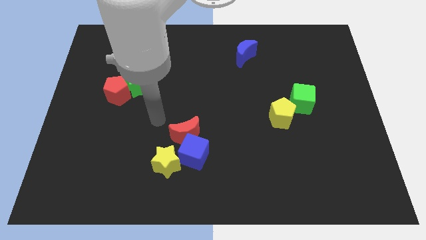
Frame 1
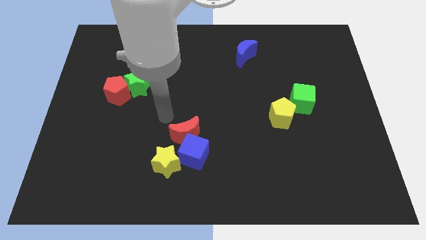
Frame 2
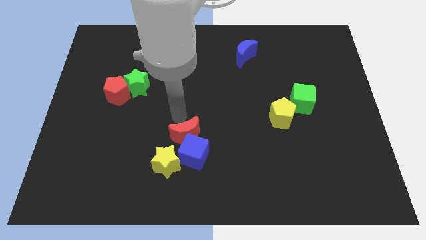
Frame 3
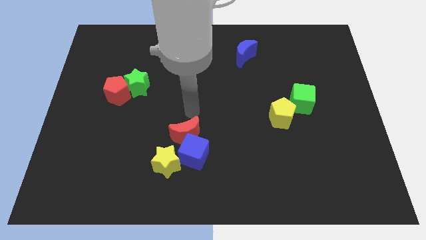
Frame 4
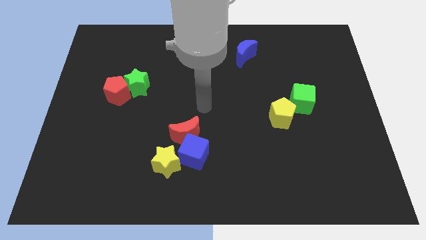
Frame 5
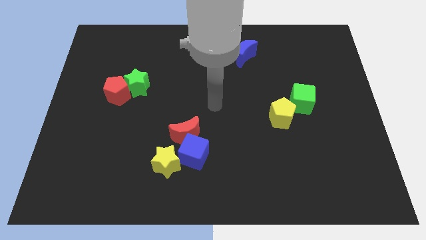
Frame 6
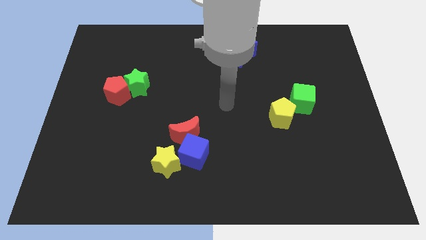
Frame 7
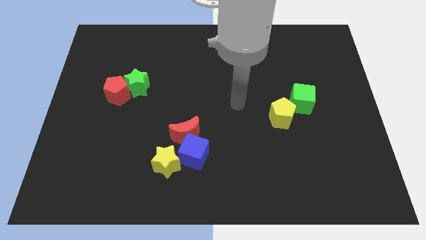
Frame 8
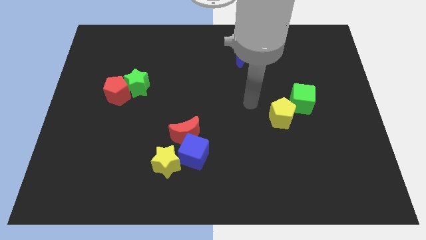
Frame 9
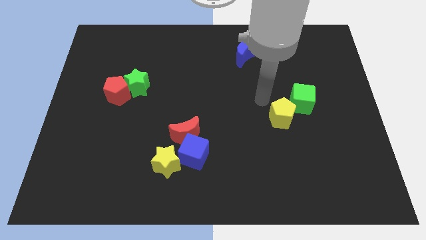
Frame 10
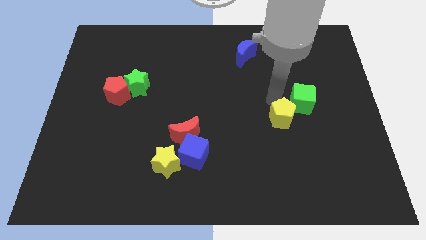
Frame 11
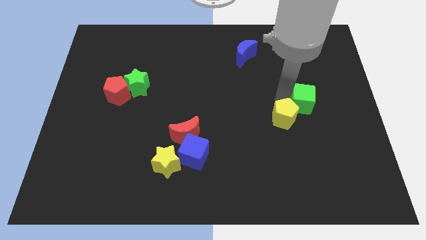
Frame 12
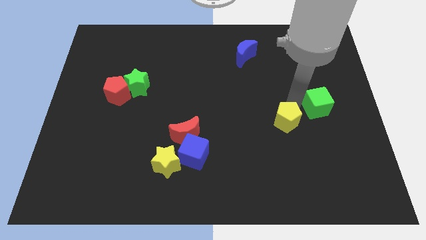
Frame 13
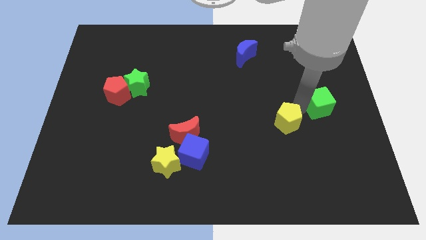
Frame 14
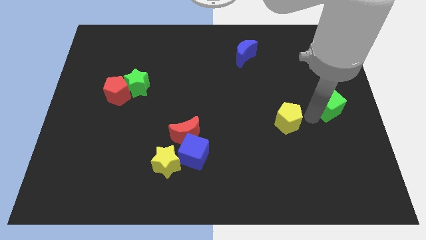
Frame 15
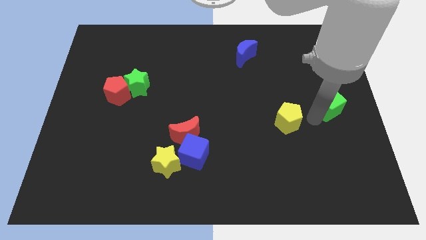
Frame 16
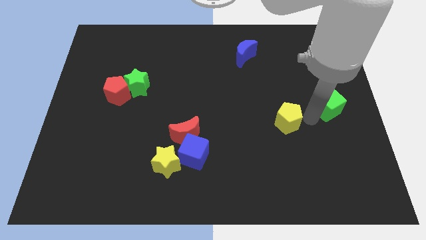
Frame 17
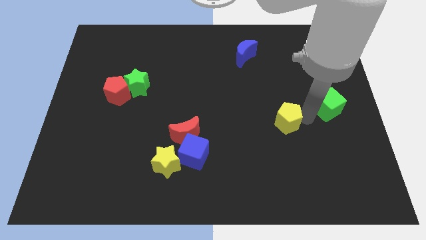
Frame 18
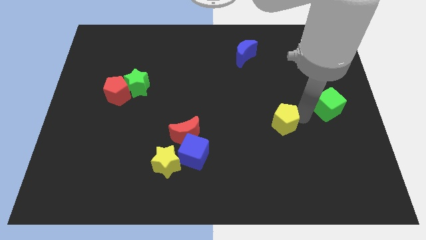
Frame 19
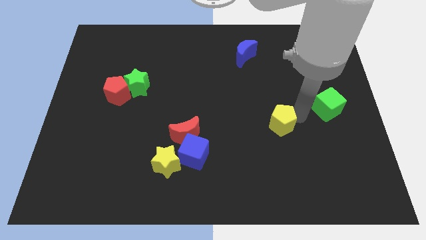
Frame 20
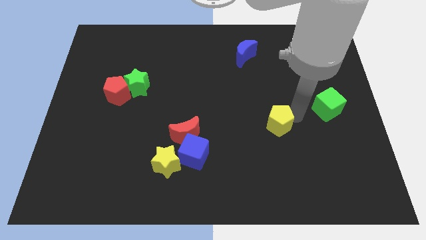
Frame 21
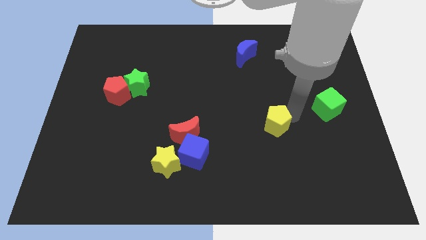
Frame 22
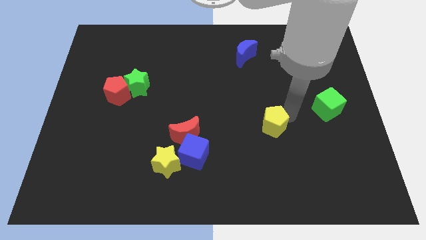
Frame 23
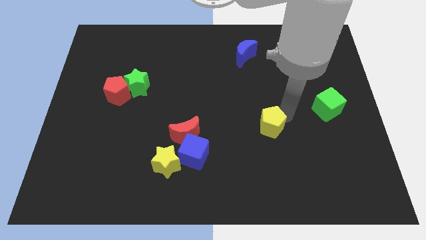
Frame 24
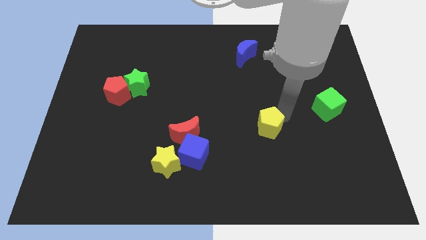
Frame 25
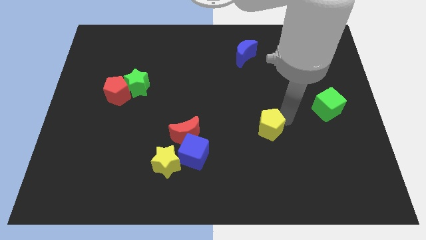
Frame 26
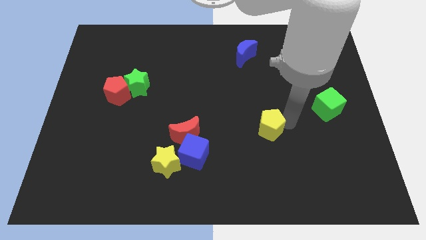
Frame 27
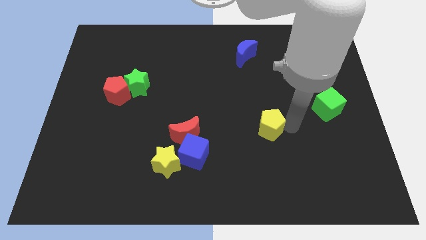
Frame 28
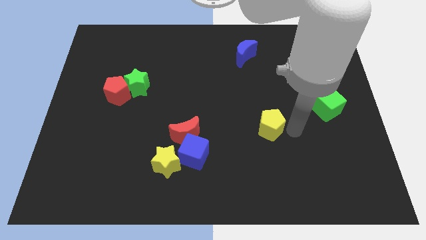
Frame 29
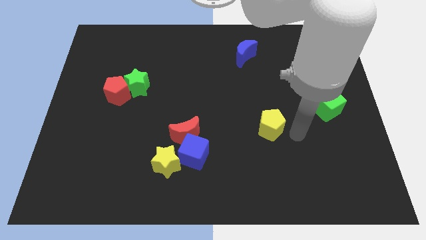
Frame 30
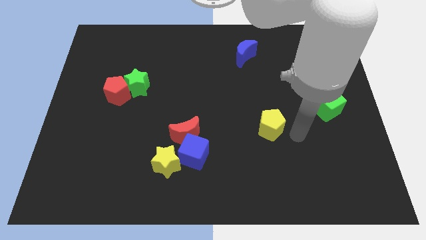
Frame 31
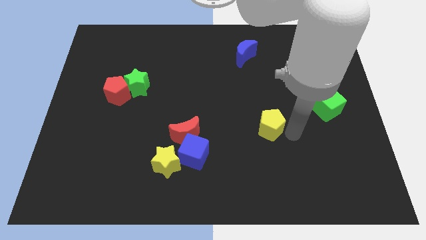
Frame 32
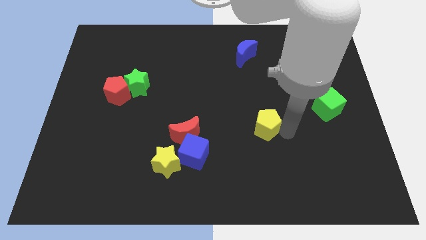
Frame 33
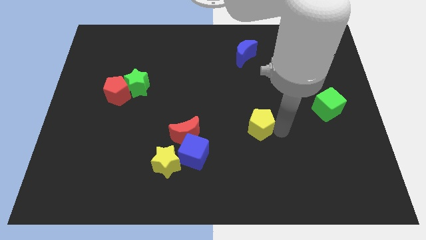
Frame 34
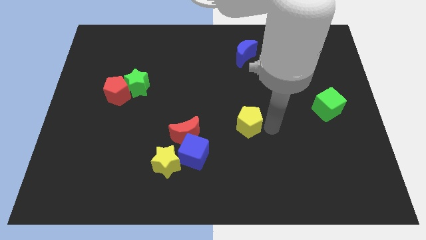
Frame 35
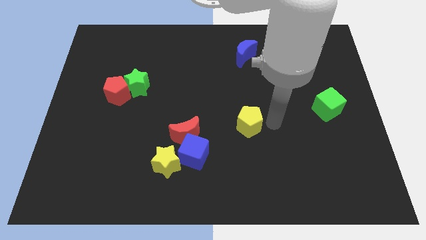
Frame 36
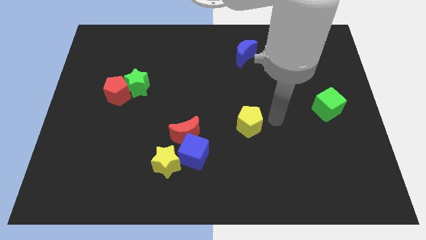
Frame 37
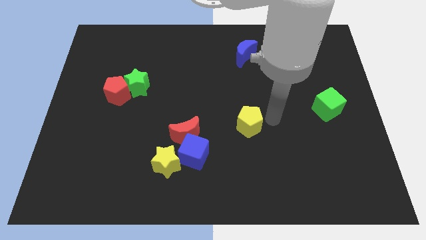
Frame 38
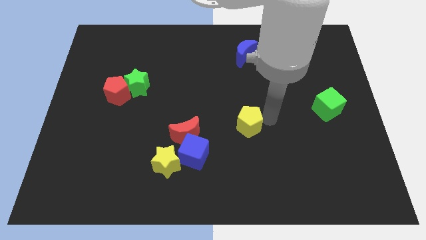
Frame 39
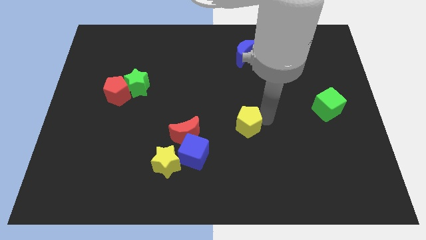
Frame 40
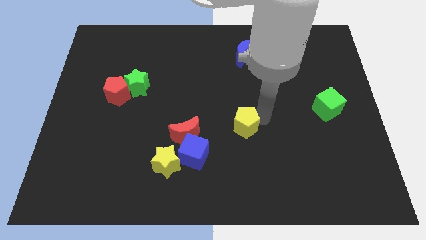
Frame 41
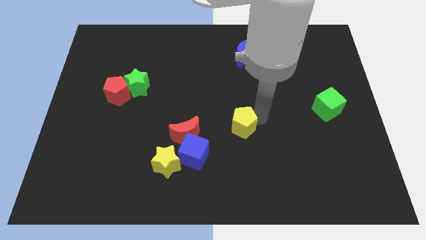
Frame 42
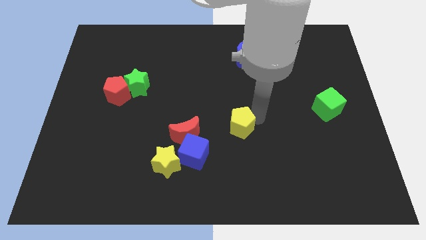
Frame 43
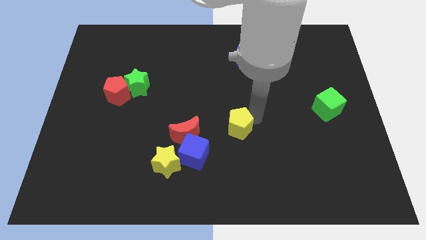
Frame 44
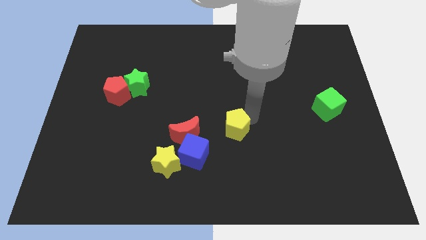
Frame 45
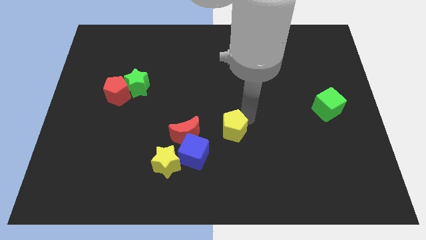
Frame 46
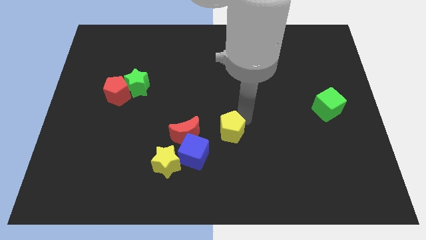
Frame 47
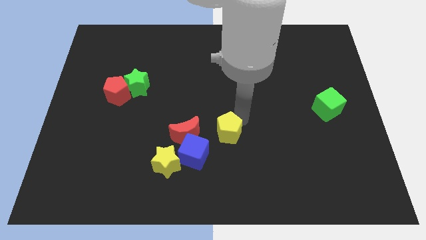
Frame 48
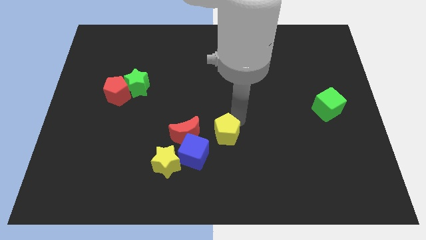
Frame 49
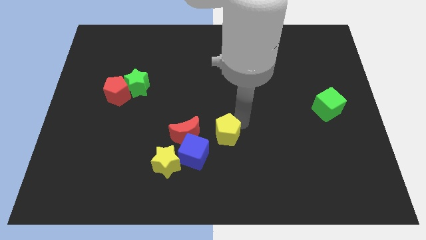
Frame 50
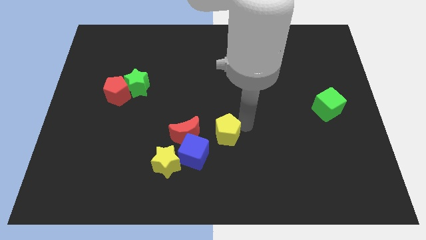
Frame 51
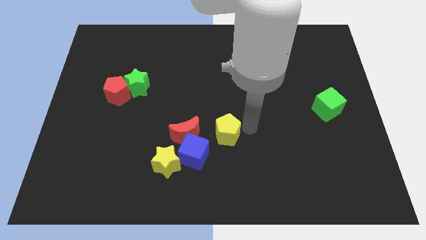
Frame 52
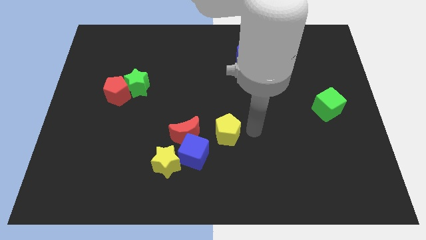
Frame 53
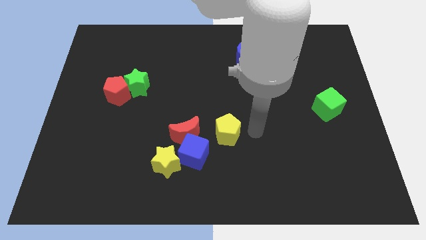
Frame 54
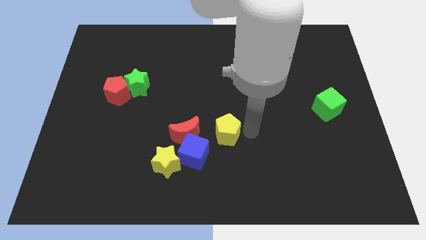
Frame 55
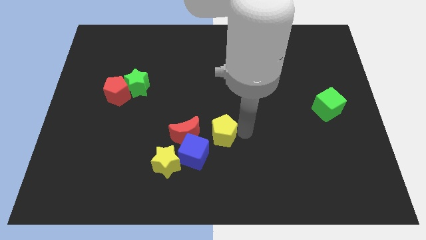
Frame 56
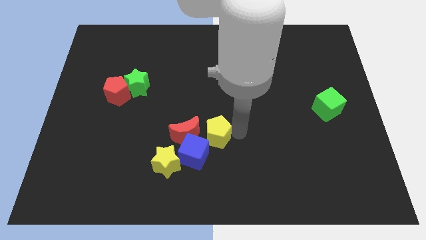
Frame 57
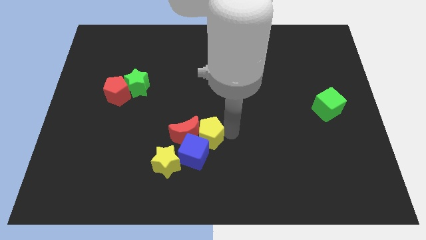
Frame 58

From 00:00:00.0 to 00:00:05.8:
push the yellow pentagon to the top right side of the yellow star

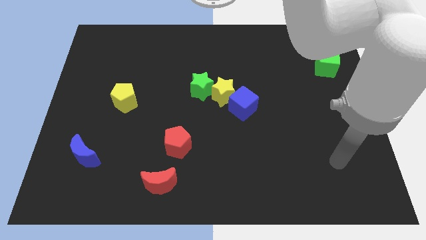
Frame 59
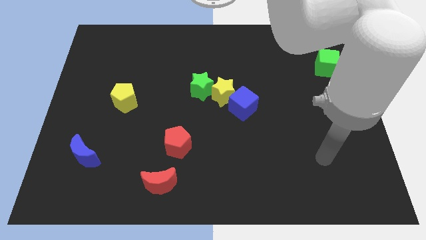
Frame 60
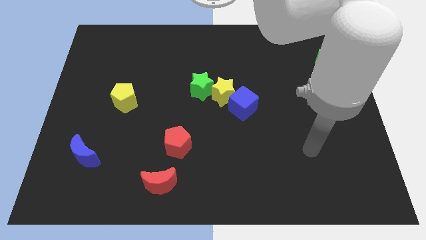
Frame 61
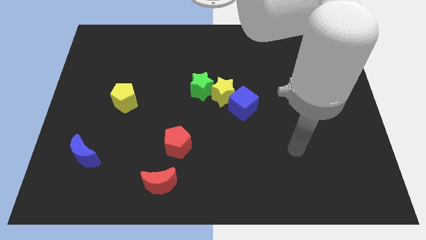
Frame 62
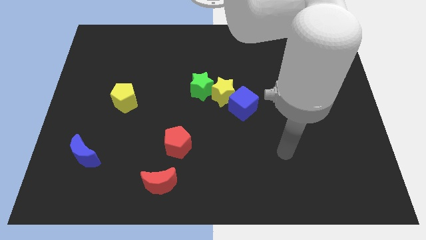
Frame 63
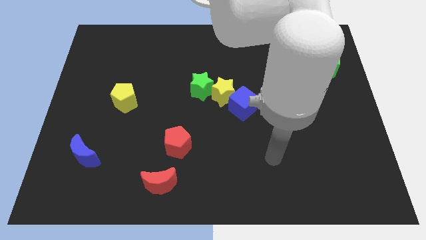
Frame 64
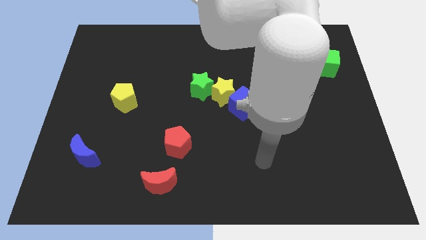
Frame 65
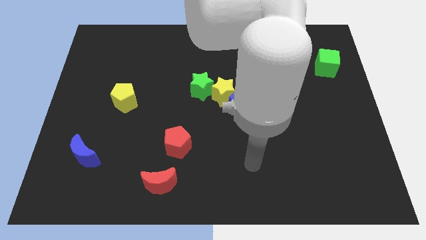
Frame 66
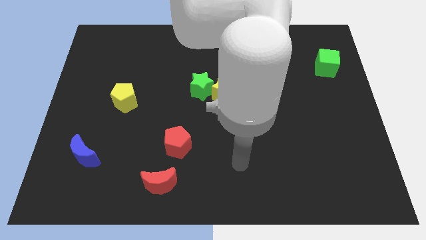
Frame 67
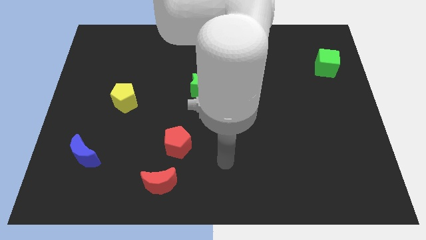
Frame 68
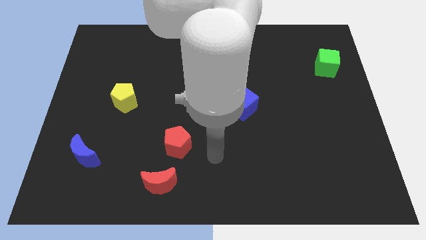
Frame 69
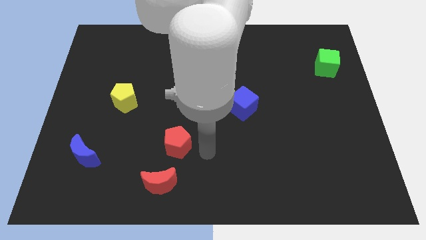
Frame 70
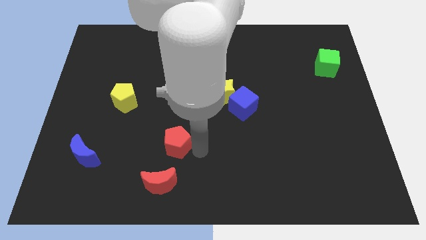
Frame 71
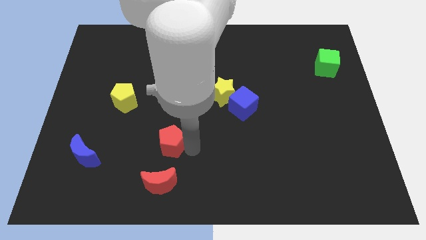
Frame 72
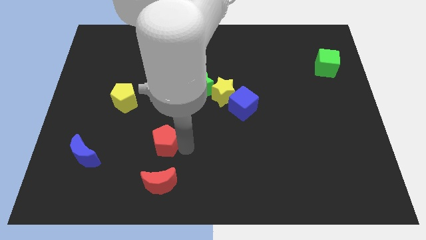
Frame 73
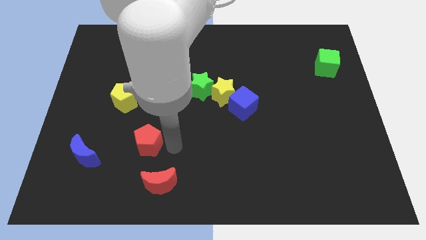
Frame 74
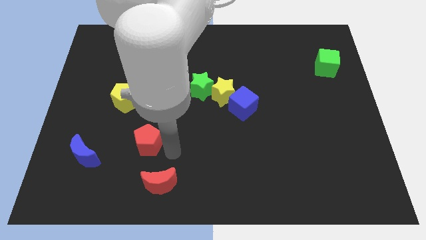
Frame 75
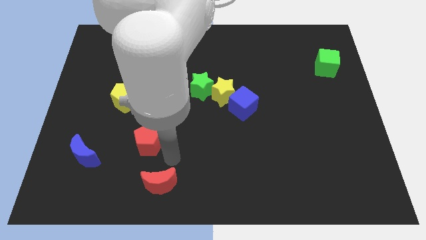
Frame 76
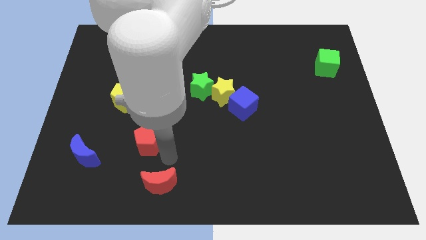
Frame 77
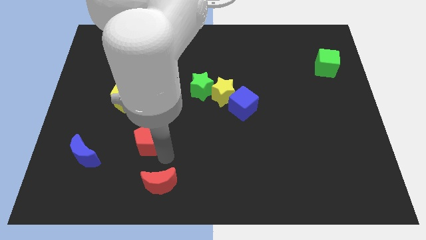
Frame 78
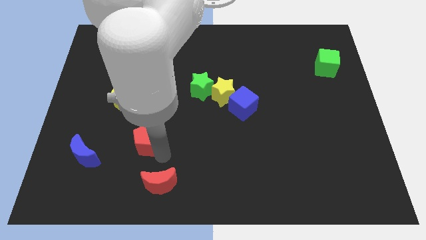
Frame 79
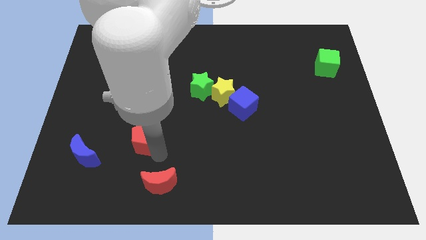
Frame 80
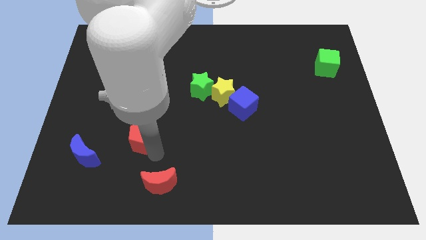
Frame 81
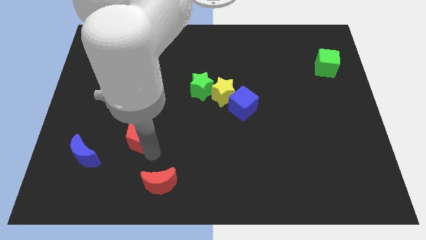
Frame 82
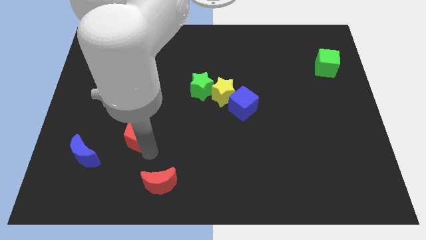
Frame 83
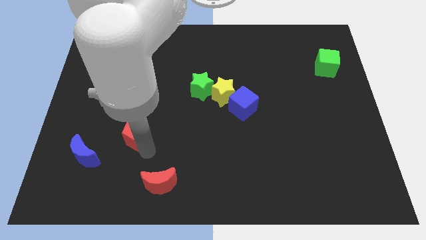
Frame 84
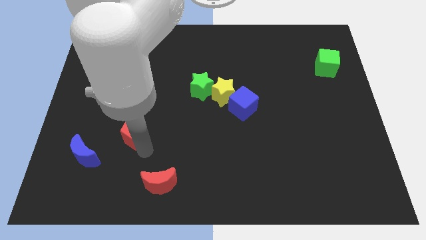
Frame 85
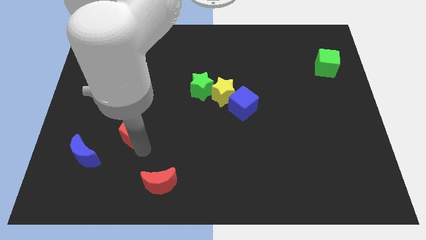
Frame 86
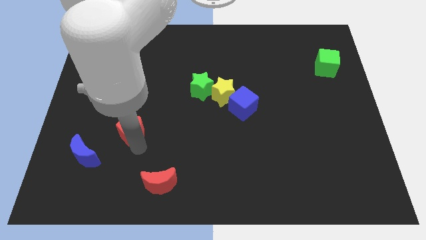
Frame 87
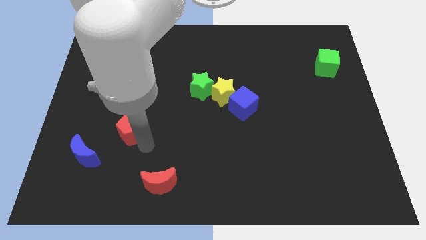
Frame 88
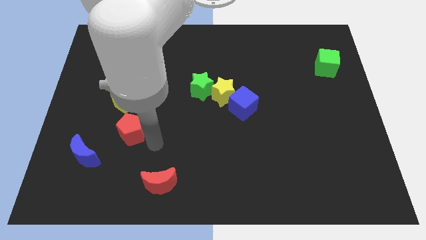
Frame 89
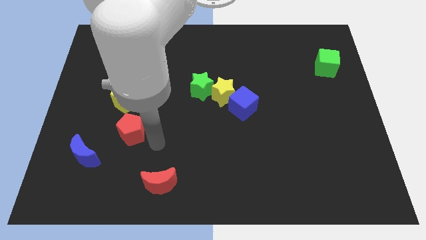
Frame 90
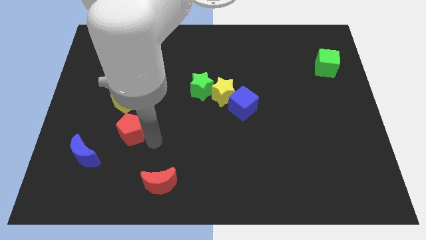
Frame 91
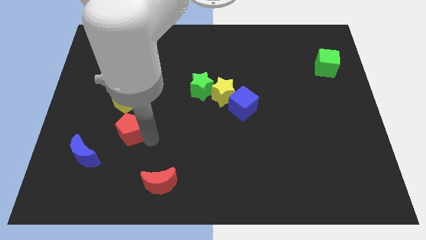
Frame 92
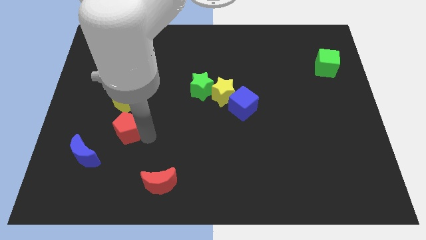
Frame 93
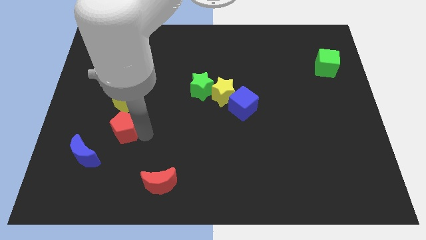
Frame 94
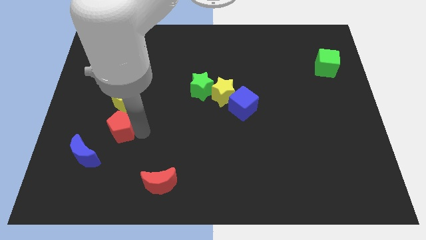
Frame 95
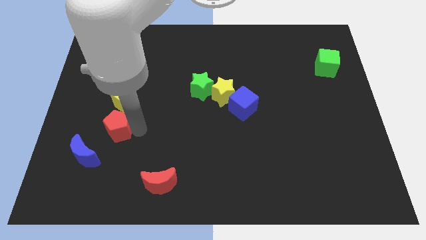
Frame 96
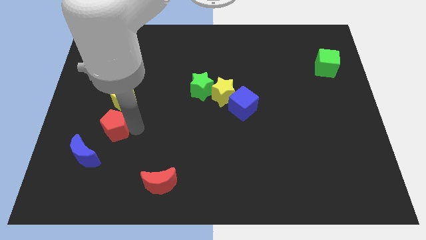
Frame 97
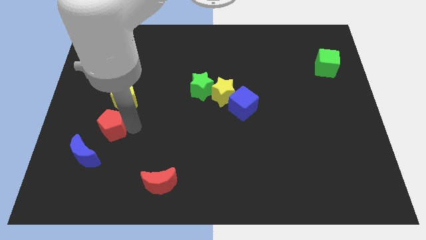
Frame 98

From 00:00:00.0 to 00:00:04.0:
move the red pentagon above the blue moon
